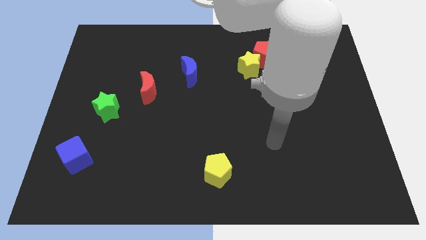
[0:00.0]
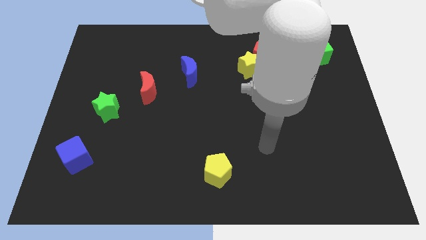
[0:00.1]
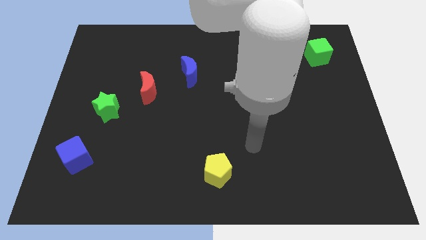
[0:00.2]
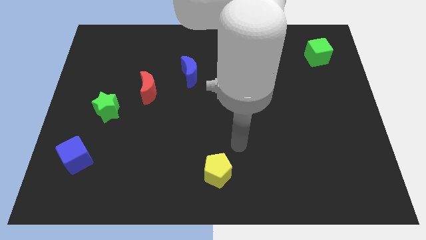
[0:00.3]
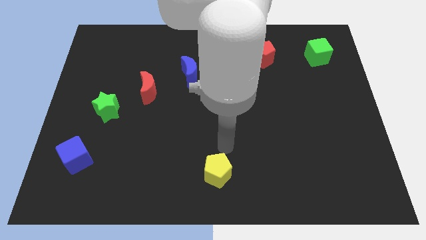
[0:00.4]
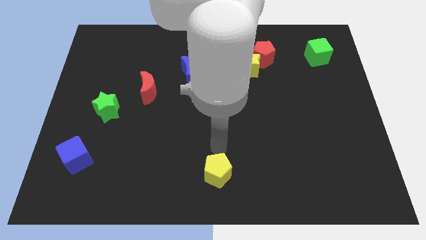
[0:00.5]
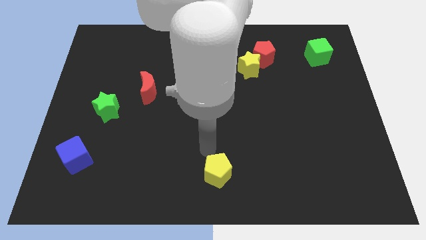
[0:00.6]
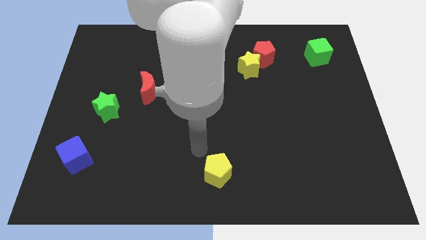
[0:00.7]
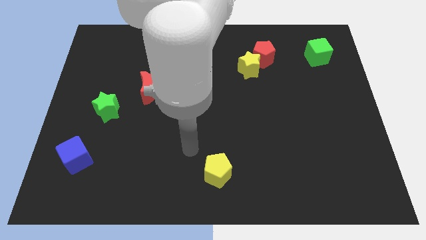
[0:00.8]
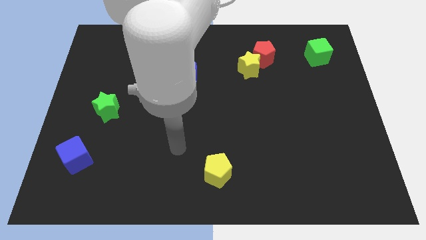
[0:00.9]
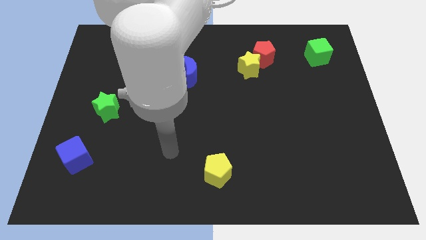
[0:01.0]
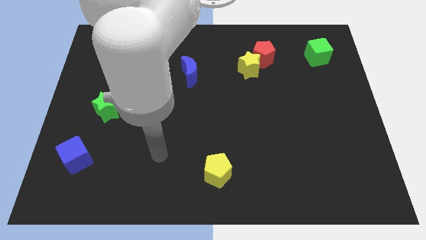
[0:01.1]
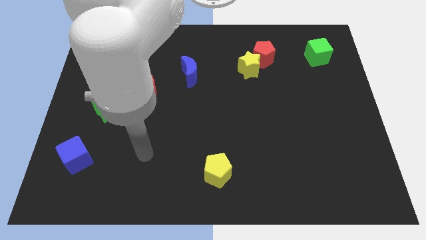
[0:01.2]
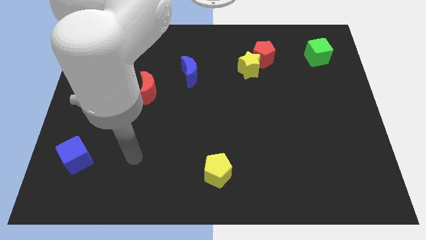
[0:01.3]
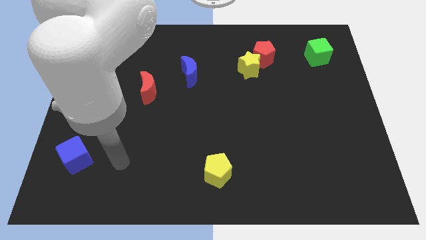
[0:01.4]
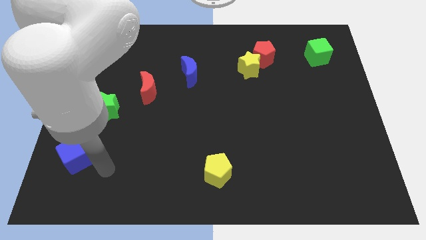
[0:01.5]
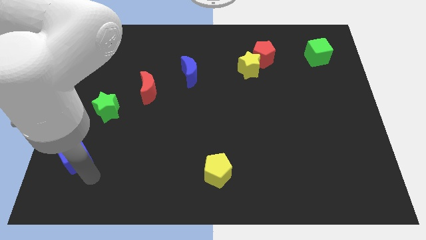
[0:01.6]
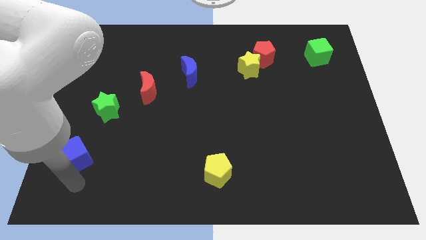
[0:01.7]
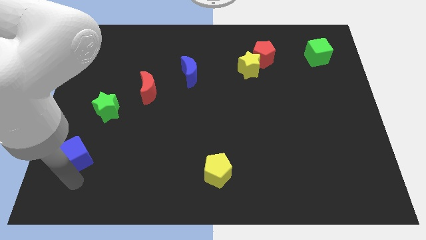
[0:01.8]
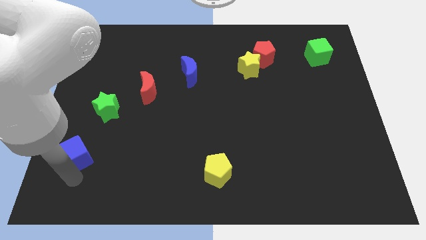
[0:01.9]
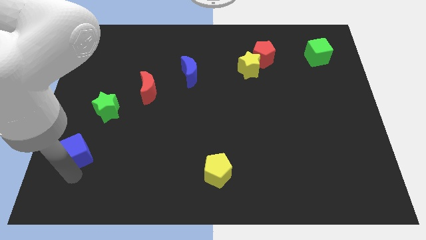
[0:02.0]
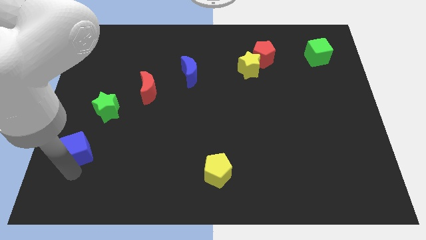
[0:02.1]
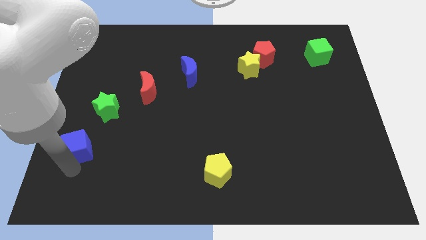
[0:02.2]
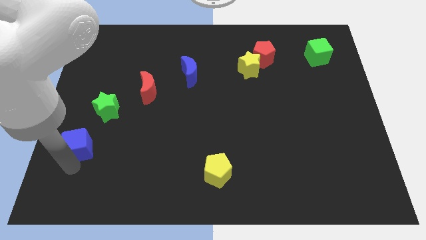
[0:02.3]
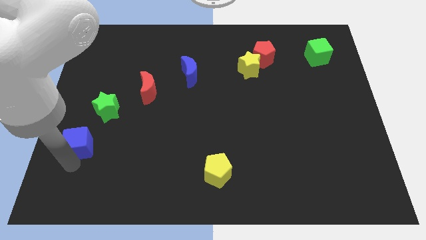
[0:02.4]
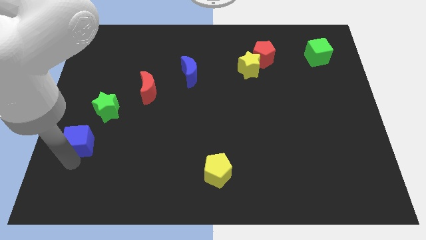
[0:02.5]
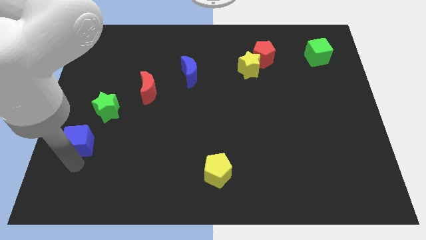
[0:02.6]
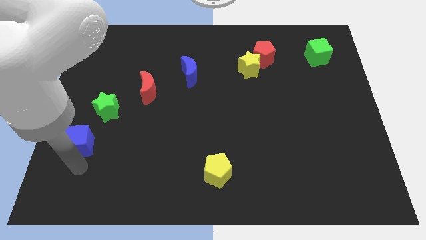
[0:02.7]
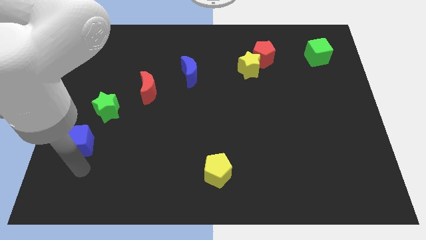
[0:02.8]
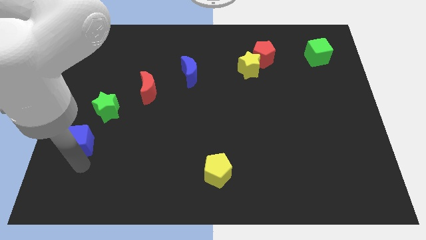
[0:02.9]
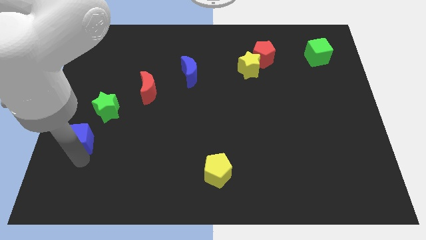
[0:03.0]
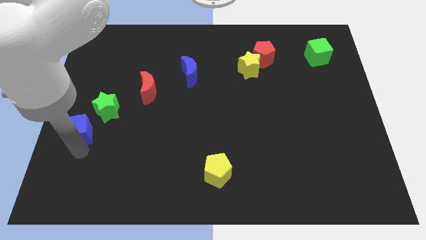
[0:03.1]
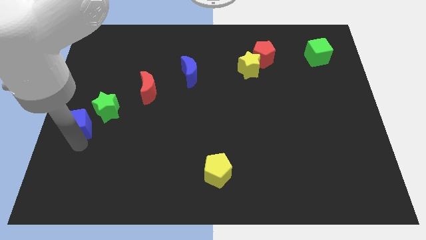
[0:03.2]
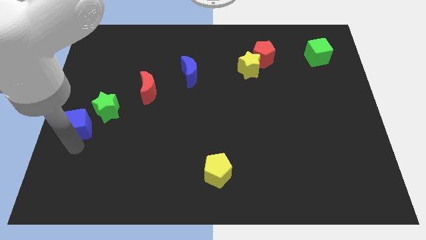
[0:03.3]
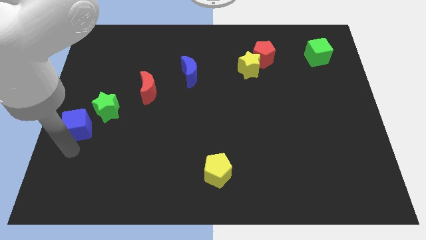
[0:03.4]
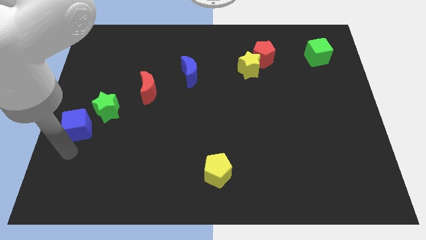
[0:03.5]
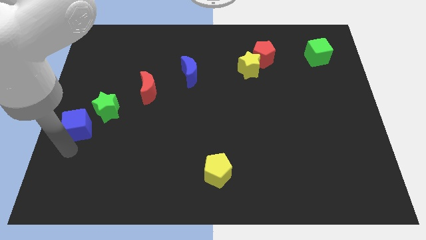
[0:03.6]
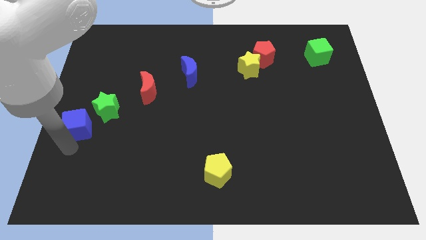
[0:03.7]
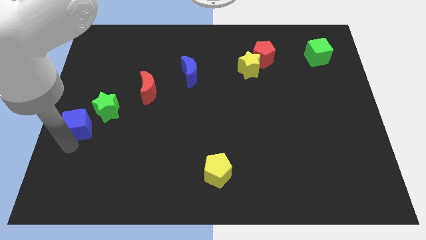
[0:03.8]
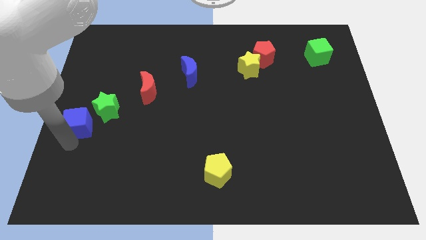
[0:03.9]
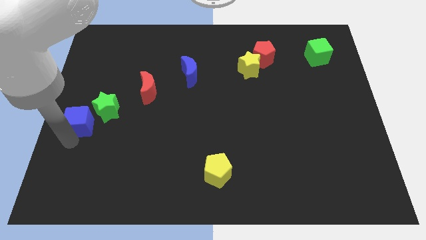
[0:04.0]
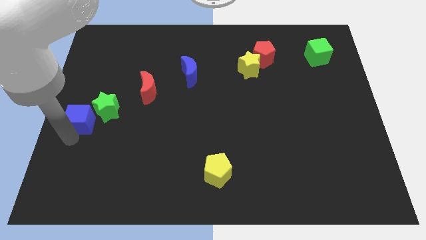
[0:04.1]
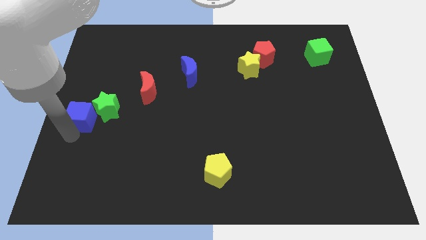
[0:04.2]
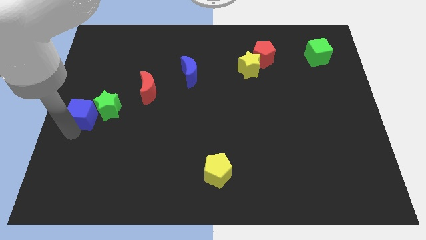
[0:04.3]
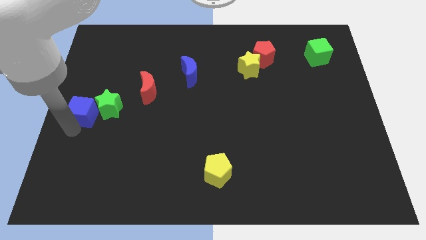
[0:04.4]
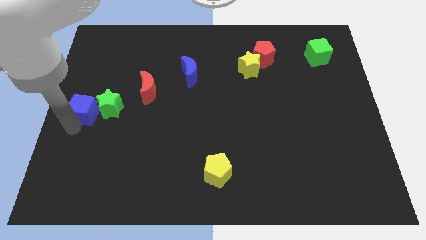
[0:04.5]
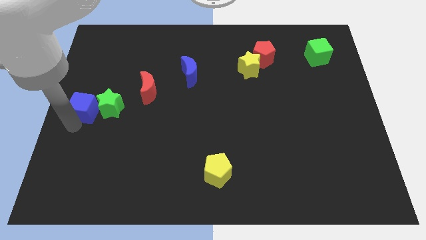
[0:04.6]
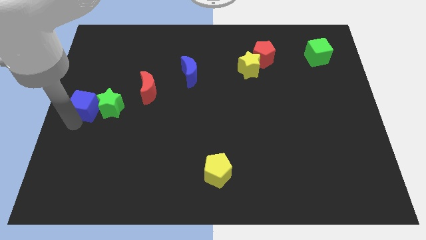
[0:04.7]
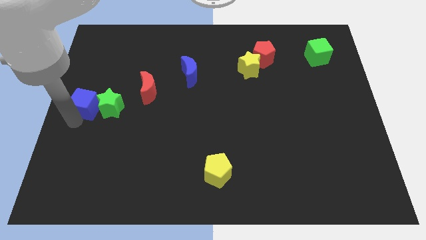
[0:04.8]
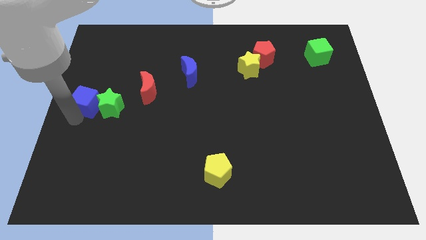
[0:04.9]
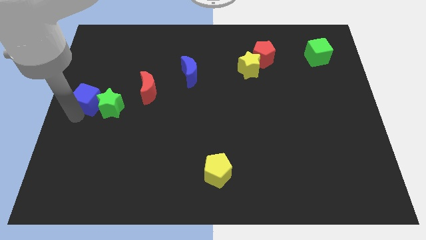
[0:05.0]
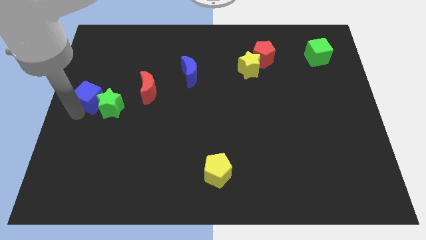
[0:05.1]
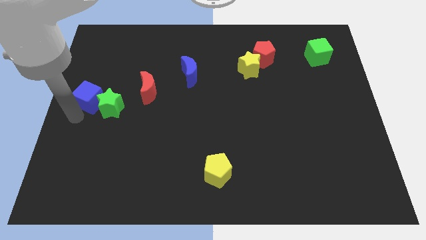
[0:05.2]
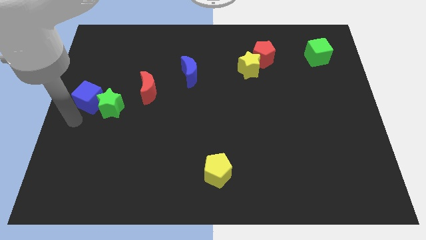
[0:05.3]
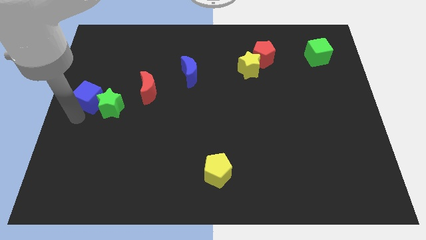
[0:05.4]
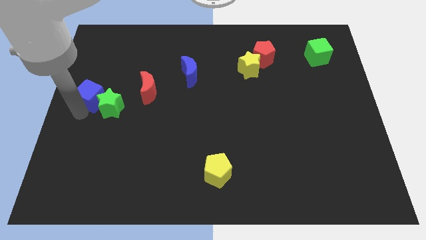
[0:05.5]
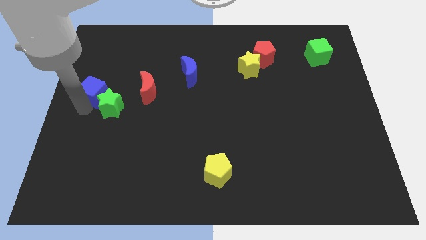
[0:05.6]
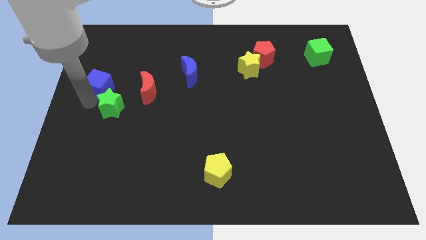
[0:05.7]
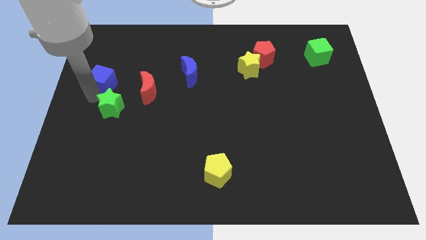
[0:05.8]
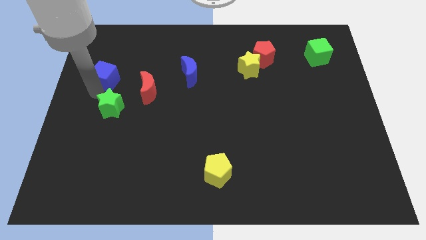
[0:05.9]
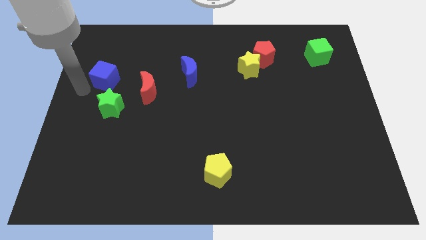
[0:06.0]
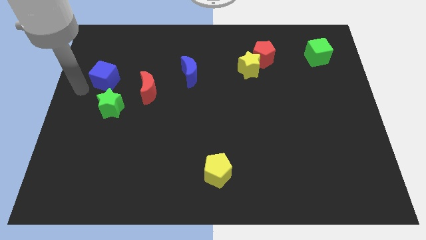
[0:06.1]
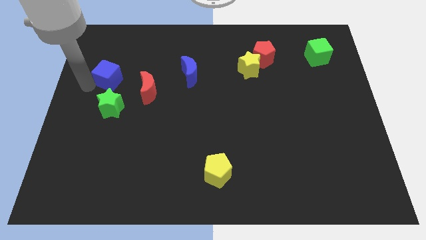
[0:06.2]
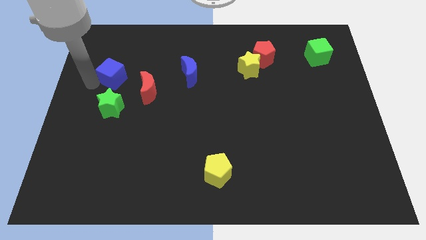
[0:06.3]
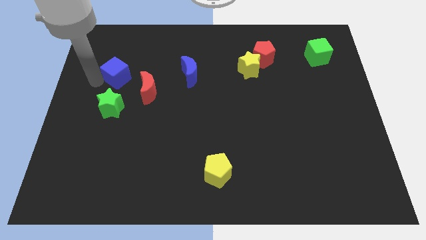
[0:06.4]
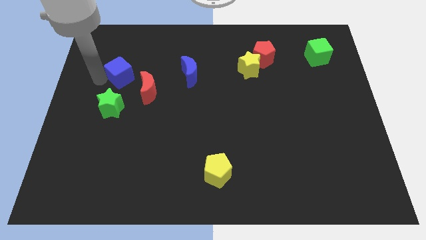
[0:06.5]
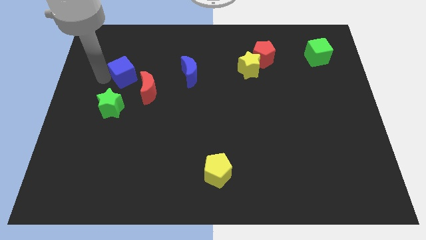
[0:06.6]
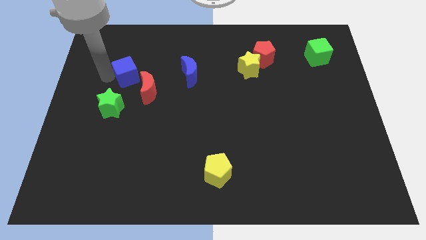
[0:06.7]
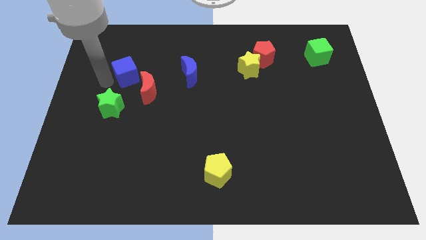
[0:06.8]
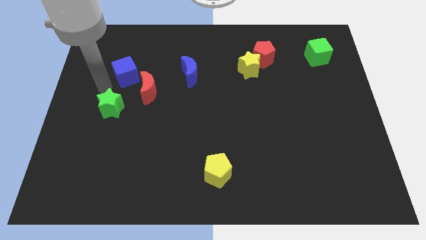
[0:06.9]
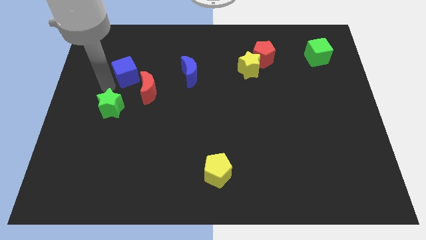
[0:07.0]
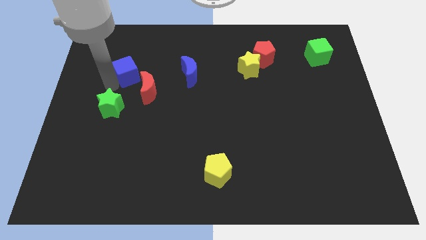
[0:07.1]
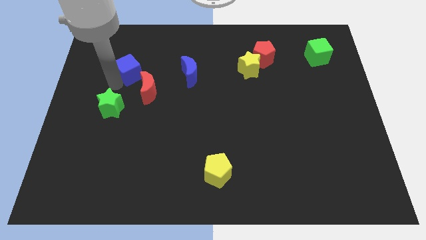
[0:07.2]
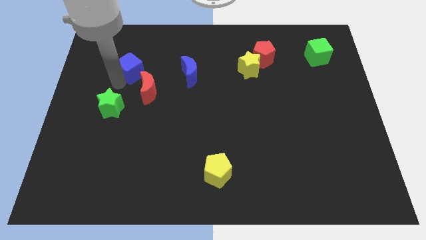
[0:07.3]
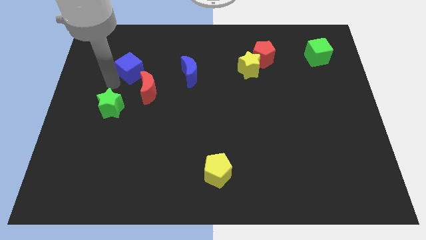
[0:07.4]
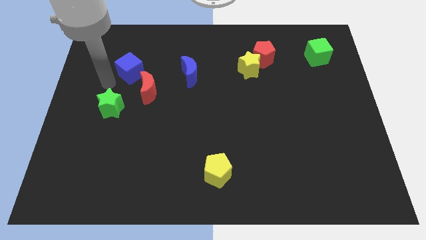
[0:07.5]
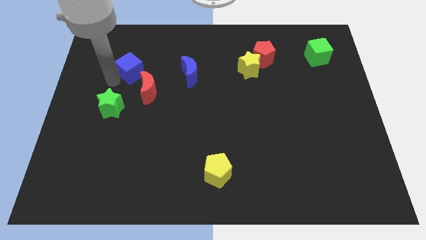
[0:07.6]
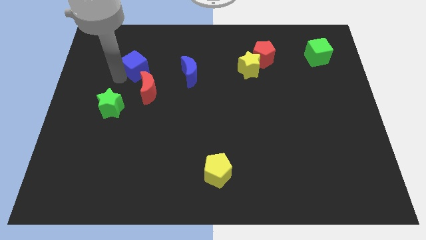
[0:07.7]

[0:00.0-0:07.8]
move the blue cube to the top of the red moon
